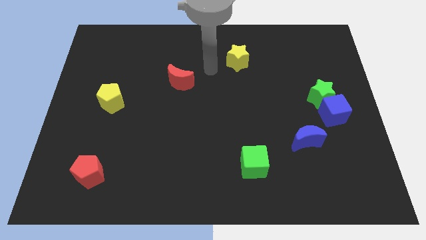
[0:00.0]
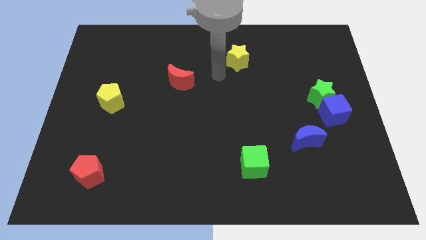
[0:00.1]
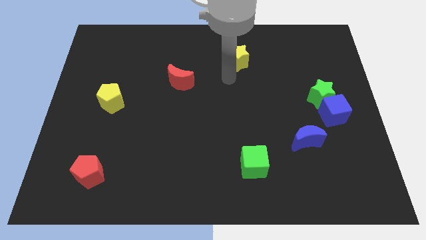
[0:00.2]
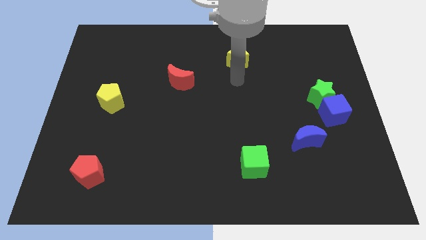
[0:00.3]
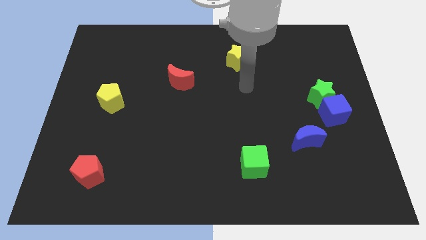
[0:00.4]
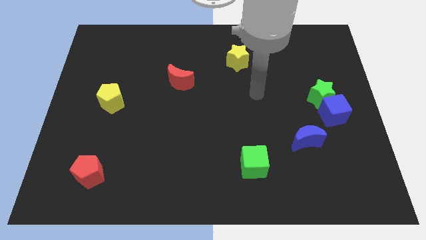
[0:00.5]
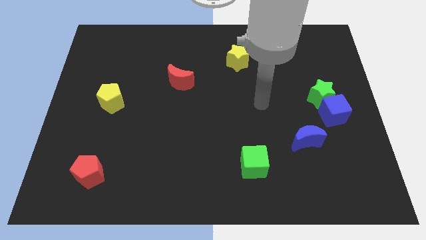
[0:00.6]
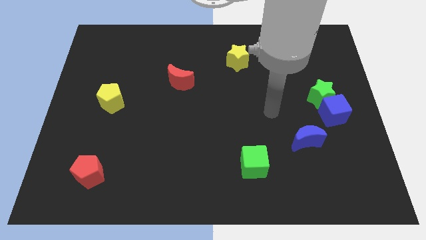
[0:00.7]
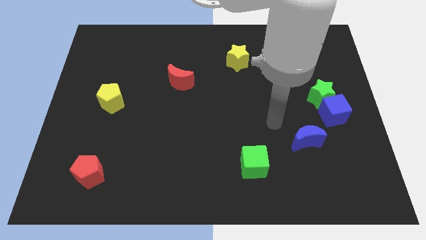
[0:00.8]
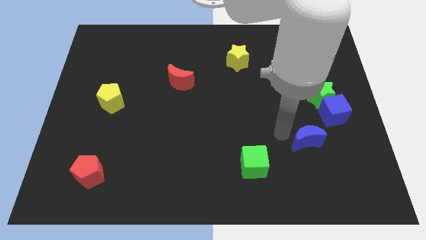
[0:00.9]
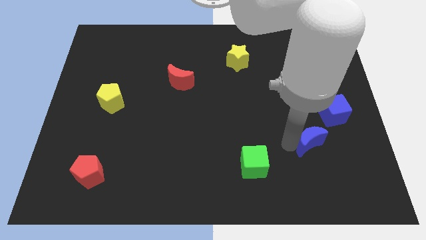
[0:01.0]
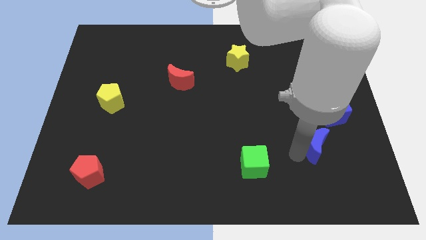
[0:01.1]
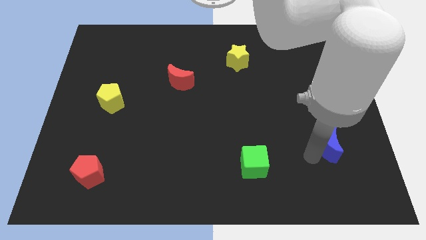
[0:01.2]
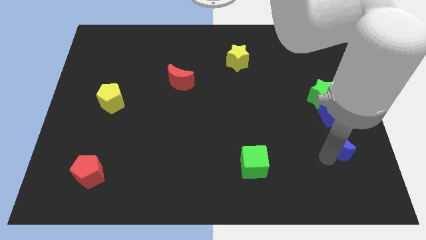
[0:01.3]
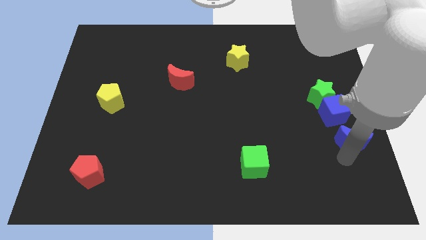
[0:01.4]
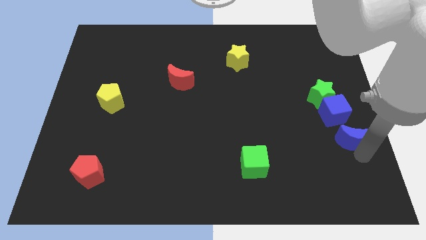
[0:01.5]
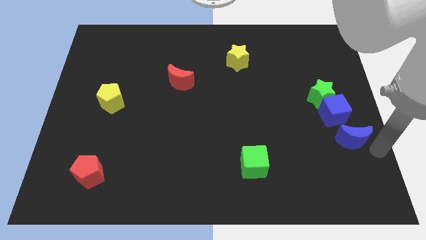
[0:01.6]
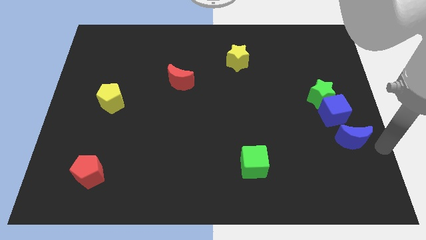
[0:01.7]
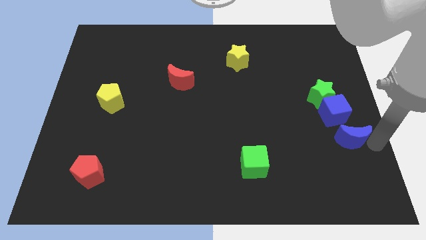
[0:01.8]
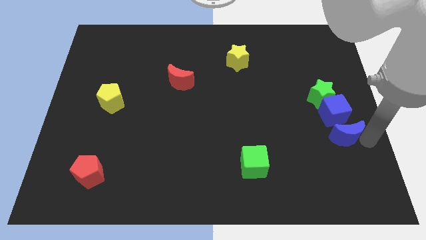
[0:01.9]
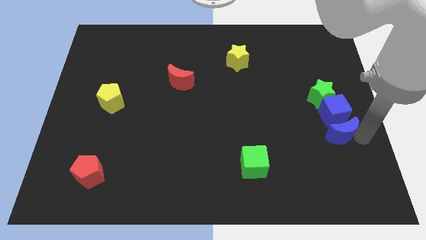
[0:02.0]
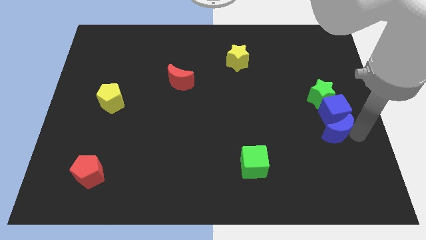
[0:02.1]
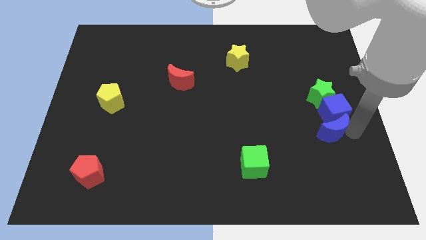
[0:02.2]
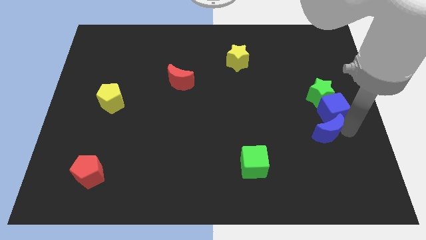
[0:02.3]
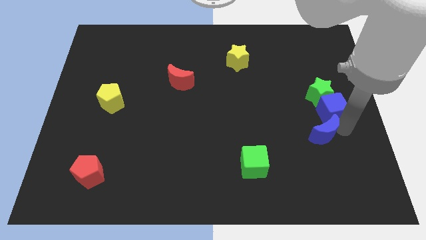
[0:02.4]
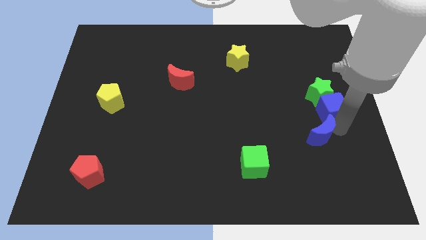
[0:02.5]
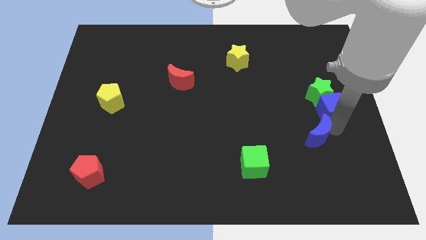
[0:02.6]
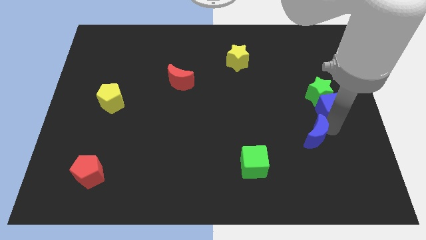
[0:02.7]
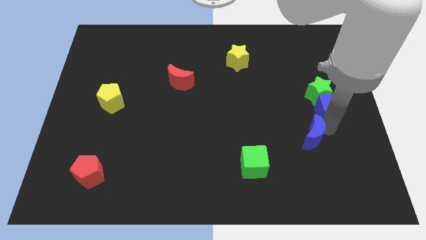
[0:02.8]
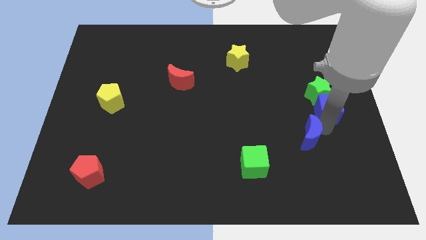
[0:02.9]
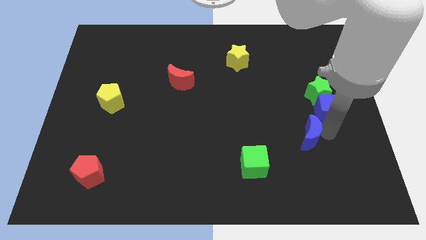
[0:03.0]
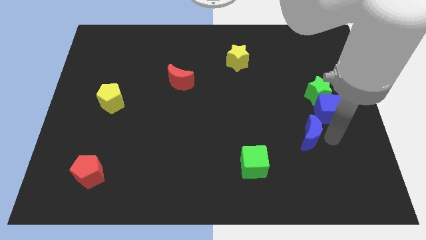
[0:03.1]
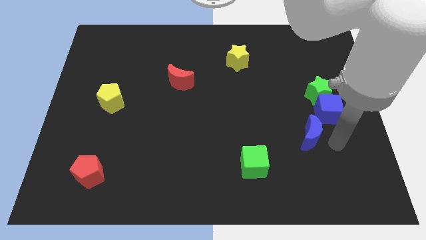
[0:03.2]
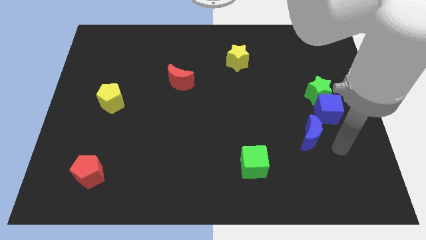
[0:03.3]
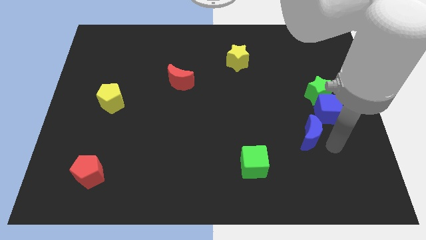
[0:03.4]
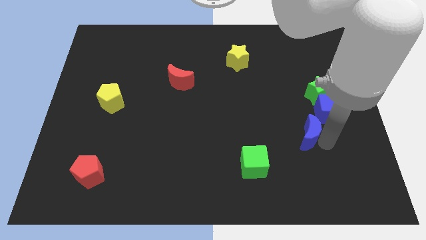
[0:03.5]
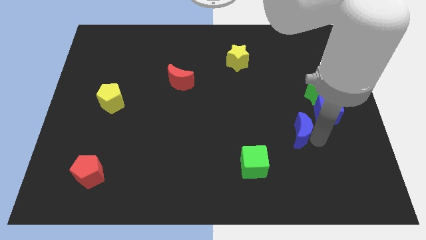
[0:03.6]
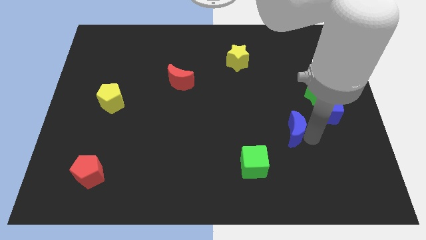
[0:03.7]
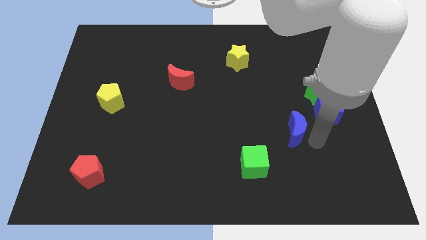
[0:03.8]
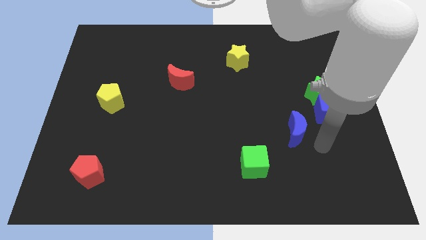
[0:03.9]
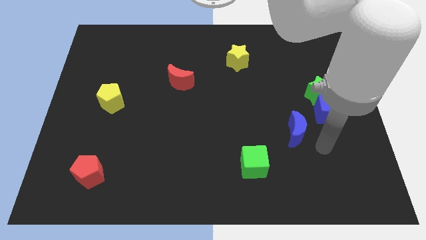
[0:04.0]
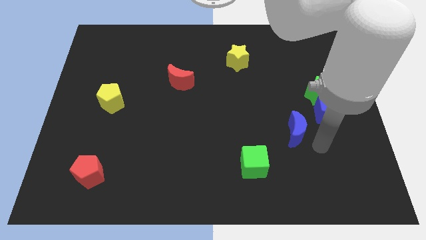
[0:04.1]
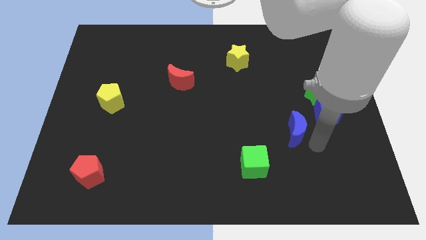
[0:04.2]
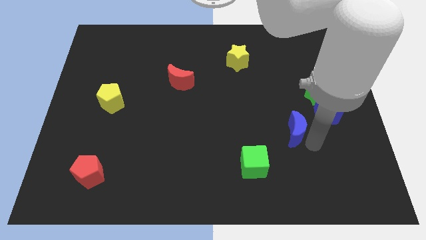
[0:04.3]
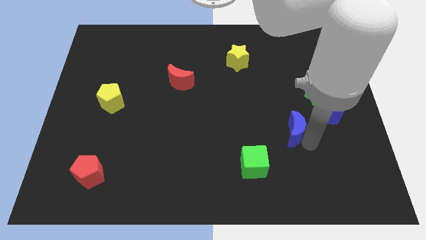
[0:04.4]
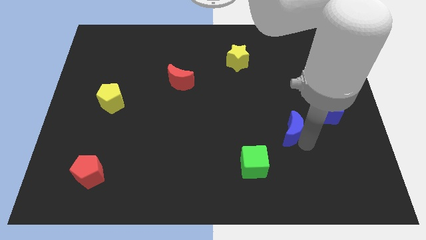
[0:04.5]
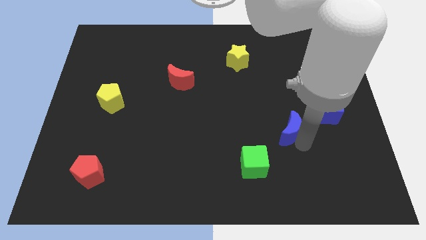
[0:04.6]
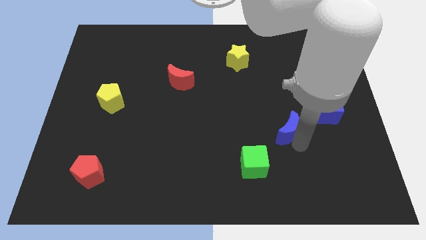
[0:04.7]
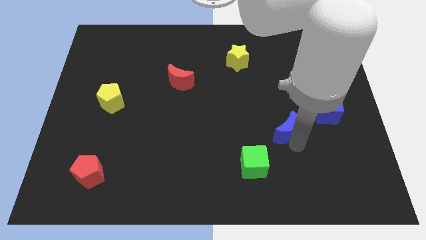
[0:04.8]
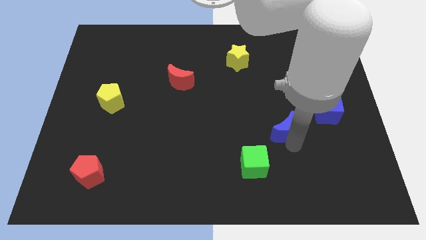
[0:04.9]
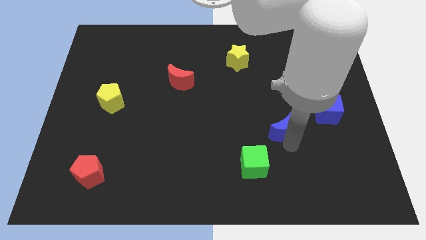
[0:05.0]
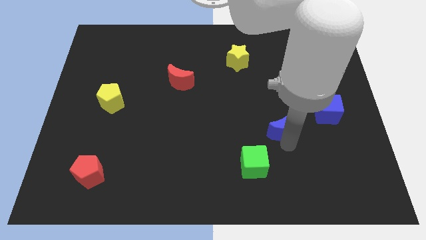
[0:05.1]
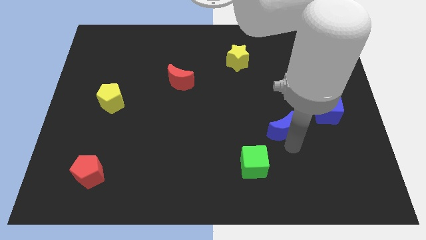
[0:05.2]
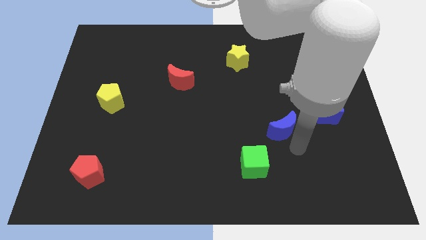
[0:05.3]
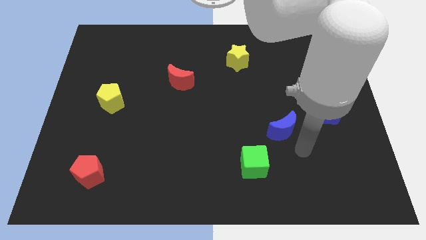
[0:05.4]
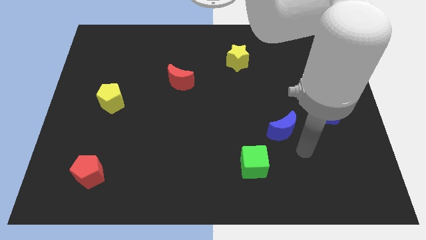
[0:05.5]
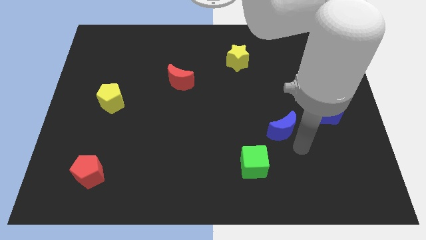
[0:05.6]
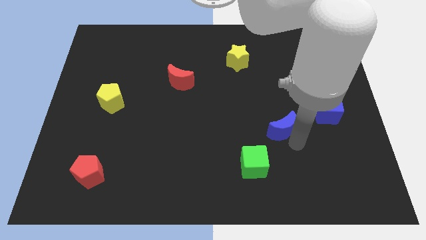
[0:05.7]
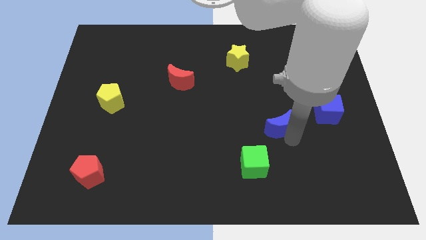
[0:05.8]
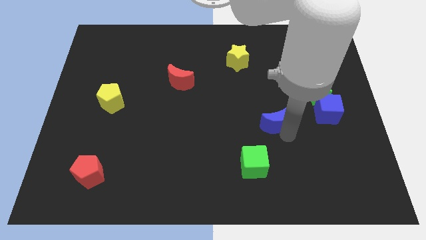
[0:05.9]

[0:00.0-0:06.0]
slide the blue moon somewhat upwards and then to the left

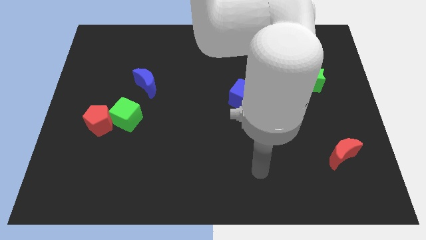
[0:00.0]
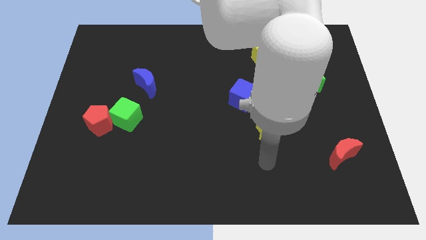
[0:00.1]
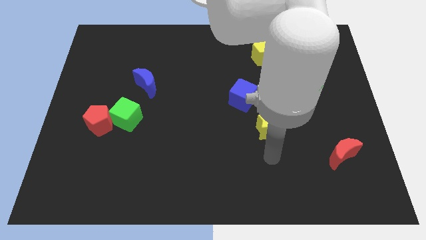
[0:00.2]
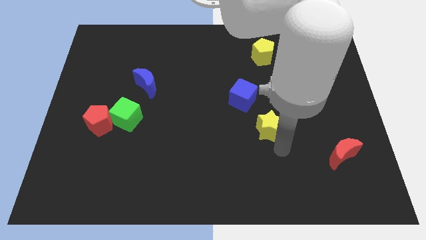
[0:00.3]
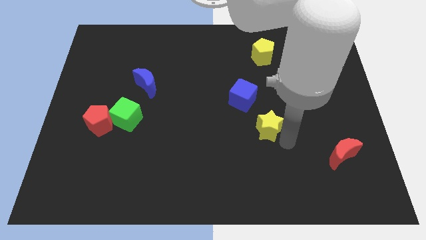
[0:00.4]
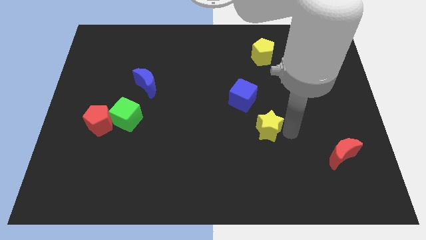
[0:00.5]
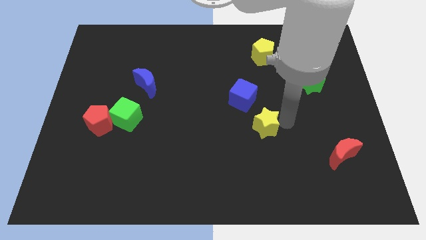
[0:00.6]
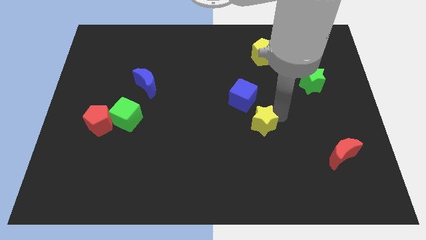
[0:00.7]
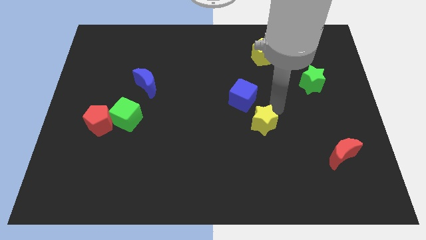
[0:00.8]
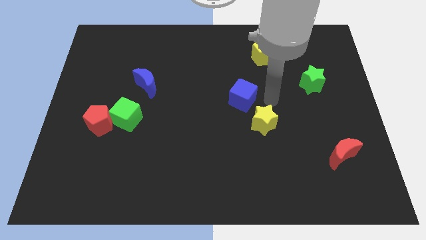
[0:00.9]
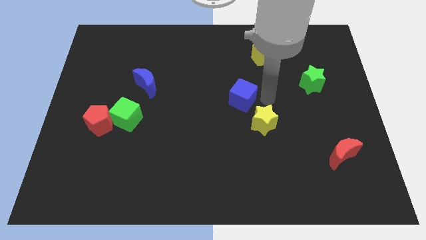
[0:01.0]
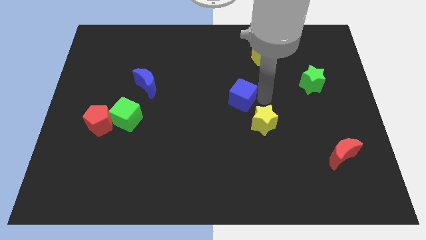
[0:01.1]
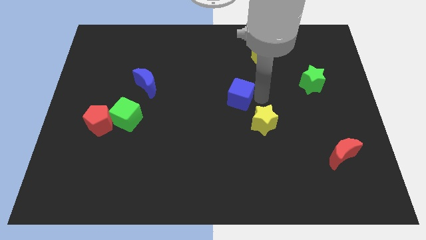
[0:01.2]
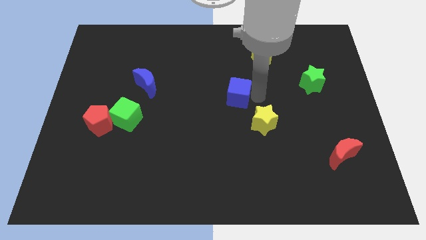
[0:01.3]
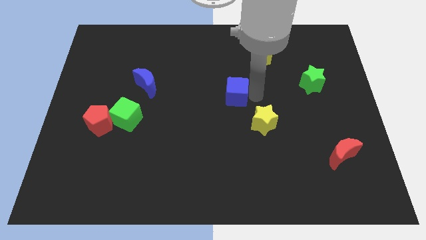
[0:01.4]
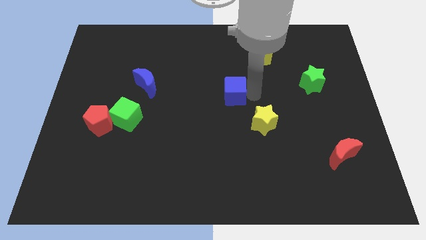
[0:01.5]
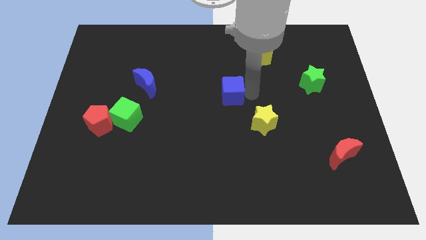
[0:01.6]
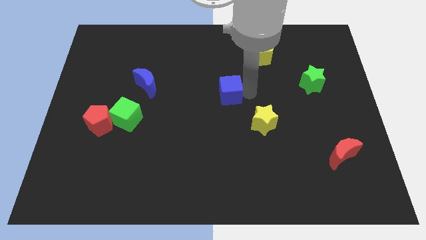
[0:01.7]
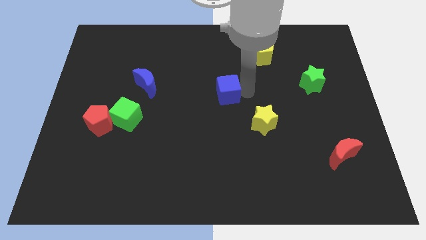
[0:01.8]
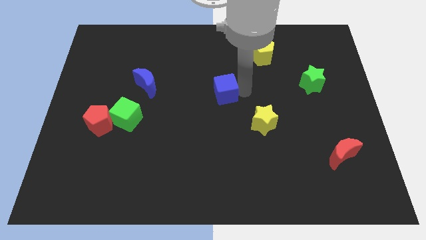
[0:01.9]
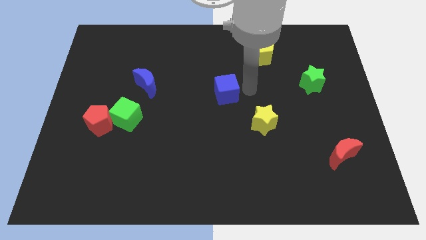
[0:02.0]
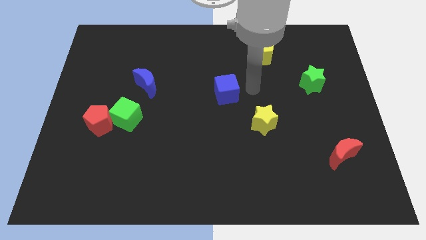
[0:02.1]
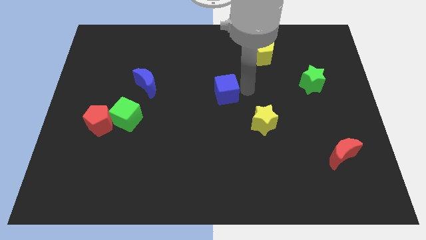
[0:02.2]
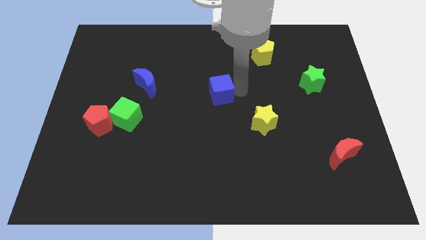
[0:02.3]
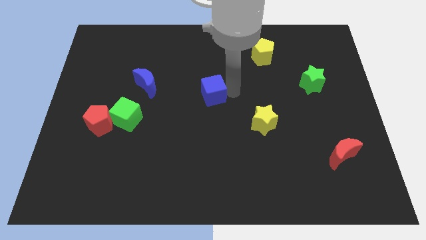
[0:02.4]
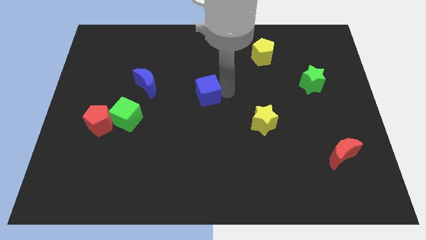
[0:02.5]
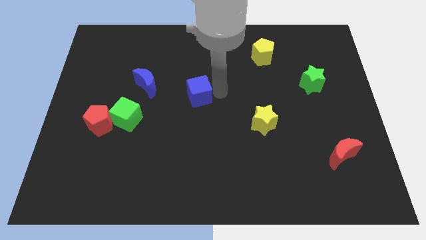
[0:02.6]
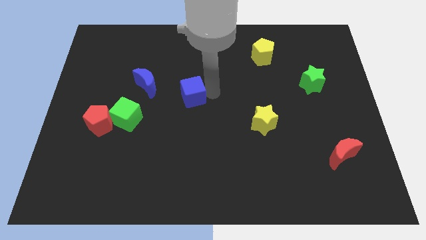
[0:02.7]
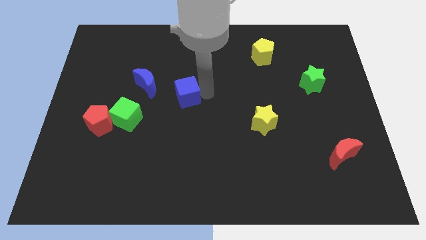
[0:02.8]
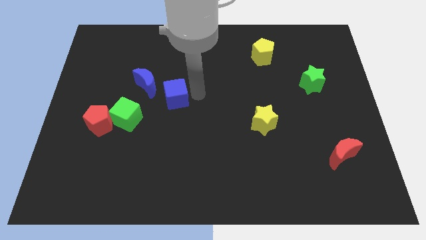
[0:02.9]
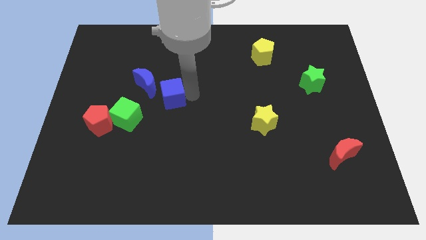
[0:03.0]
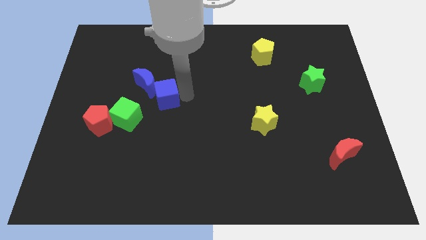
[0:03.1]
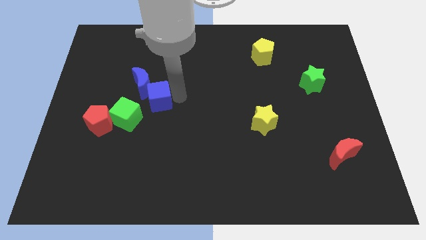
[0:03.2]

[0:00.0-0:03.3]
push the blue cube left
